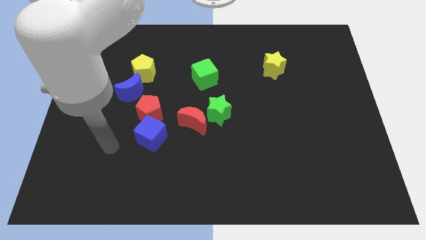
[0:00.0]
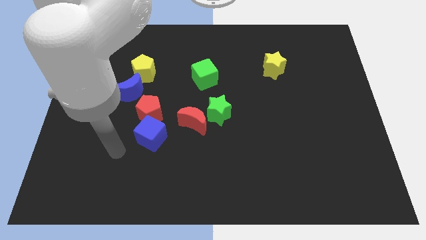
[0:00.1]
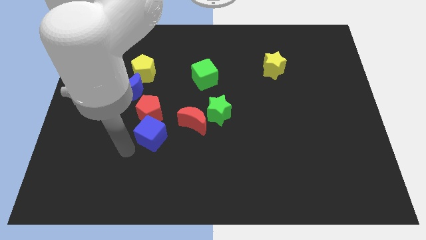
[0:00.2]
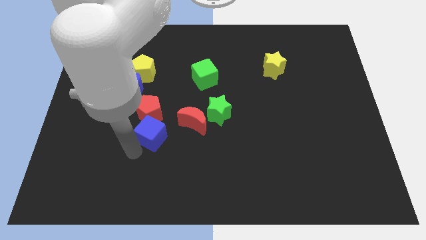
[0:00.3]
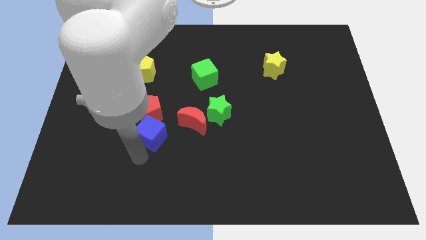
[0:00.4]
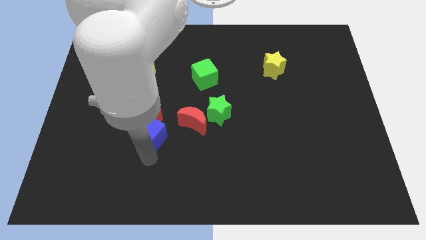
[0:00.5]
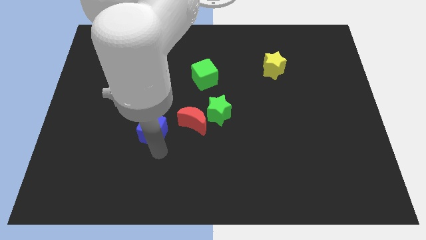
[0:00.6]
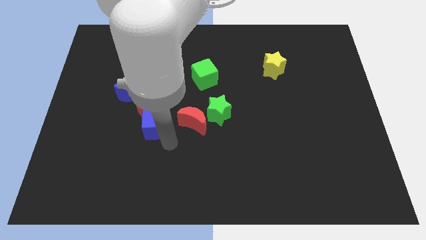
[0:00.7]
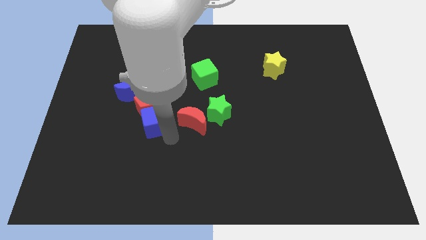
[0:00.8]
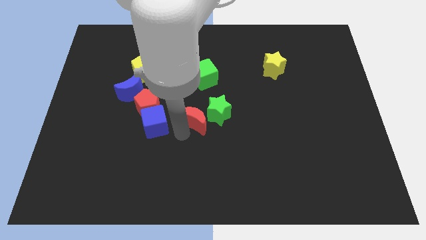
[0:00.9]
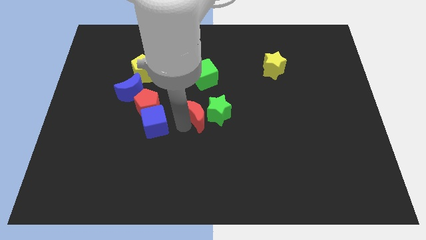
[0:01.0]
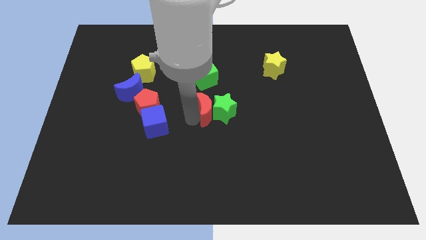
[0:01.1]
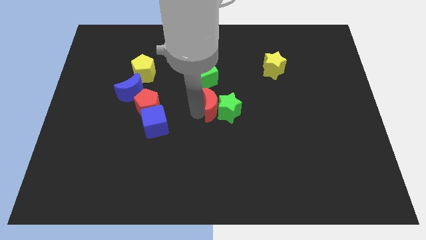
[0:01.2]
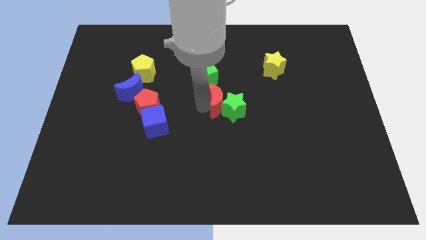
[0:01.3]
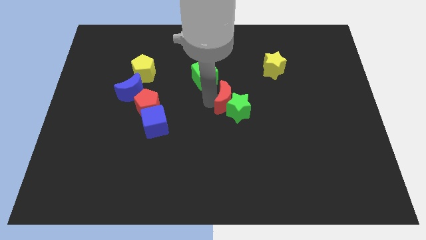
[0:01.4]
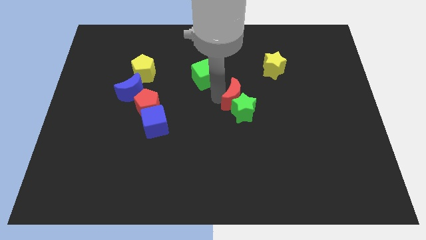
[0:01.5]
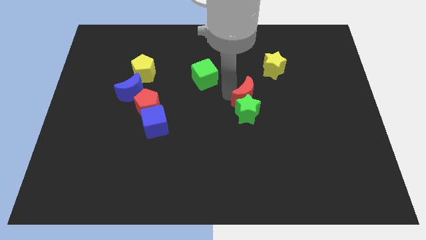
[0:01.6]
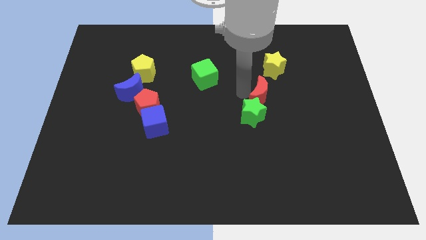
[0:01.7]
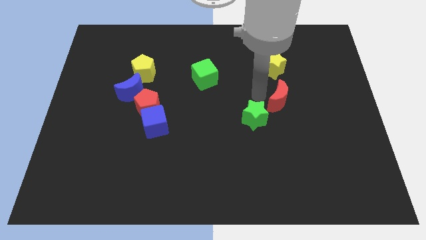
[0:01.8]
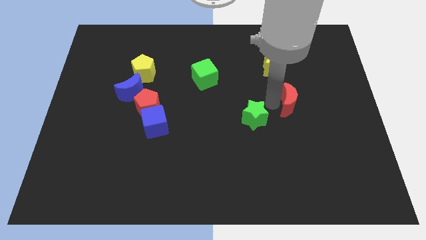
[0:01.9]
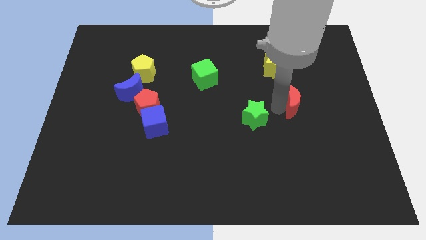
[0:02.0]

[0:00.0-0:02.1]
pull the green star apart from the red moon

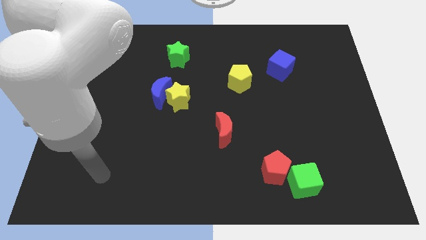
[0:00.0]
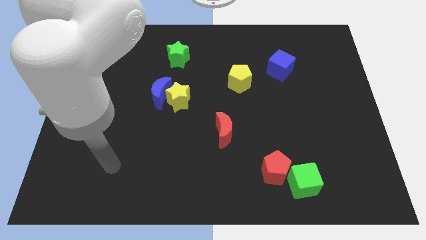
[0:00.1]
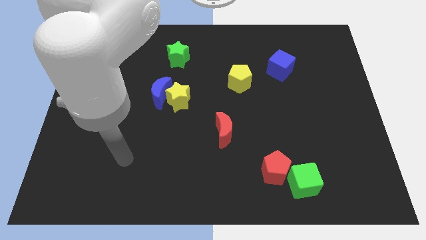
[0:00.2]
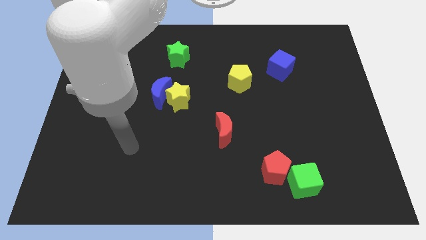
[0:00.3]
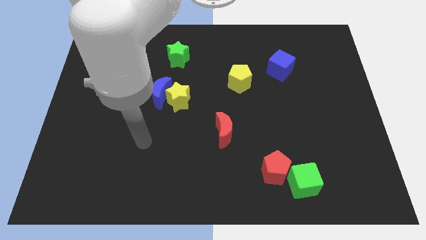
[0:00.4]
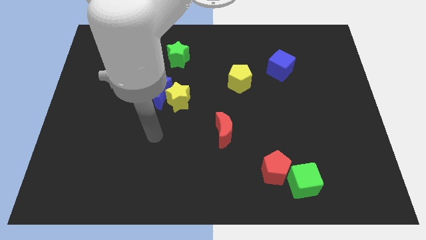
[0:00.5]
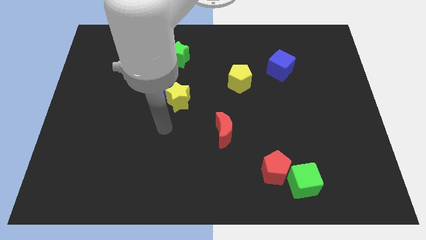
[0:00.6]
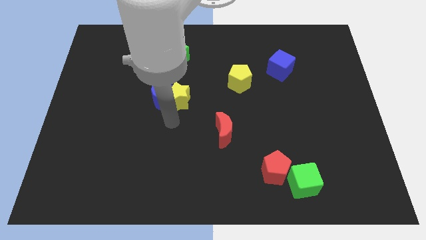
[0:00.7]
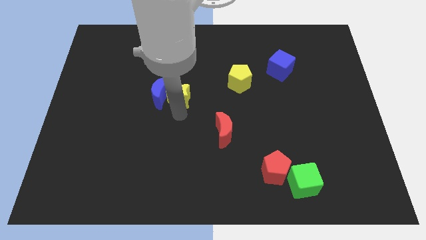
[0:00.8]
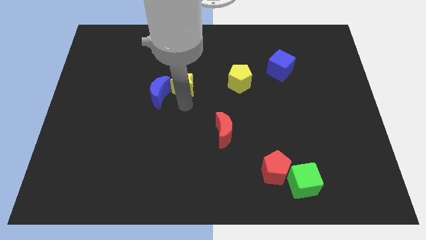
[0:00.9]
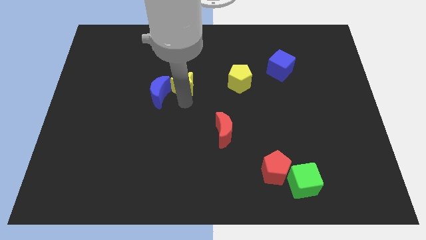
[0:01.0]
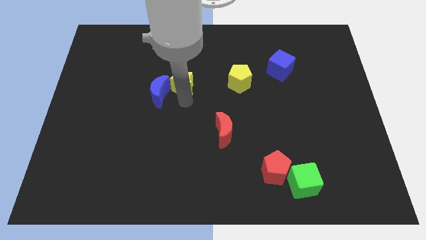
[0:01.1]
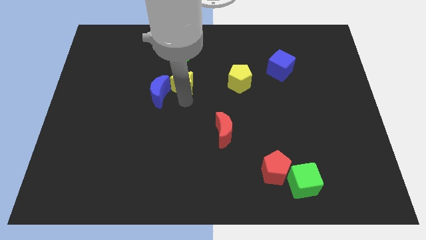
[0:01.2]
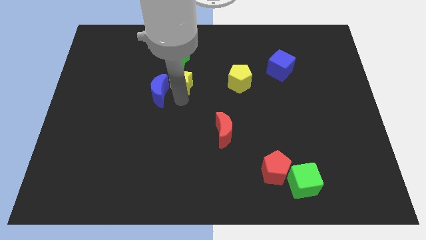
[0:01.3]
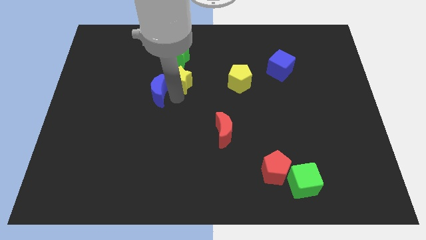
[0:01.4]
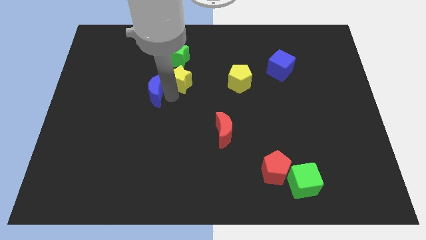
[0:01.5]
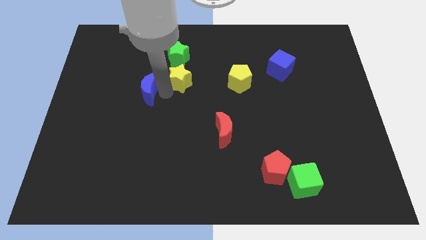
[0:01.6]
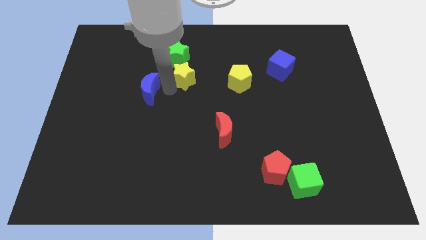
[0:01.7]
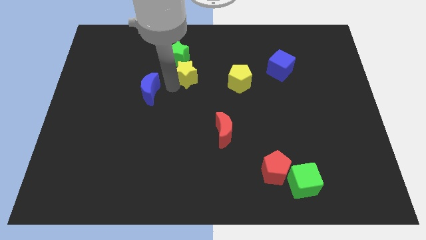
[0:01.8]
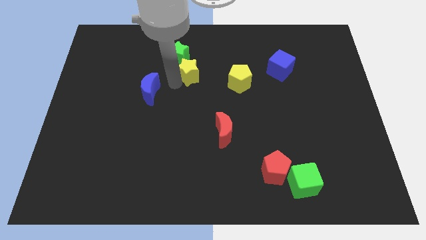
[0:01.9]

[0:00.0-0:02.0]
separate the blue moon from the yellow star

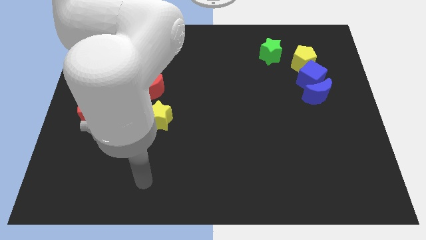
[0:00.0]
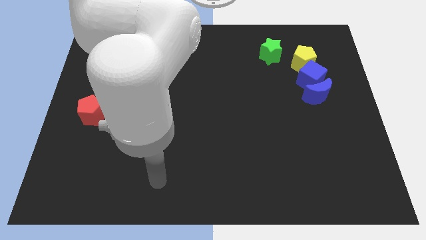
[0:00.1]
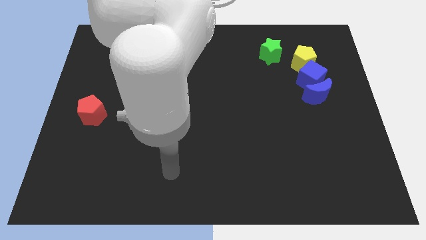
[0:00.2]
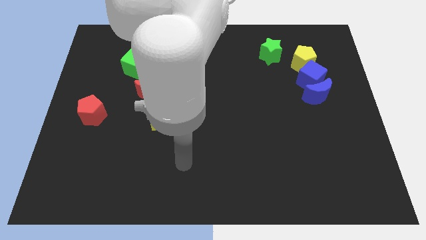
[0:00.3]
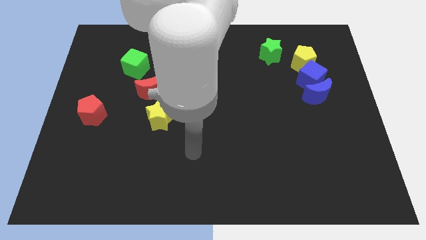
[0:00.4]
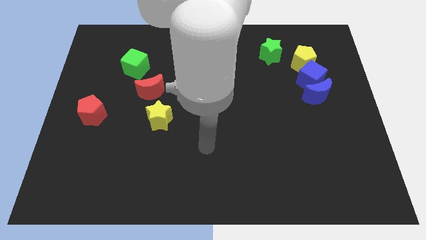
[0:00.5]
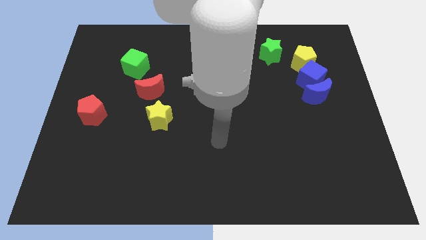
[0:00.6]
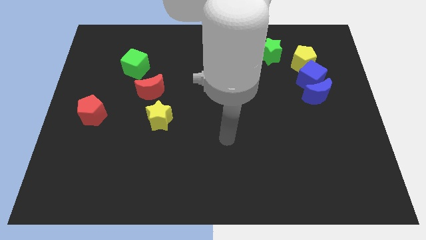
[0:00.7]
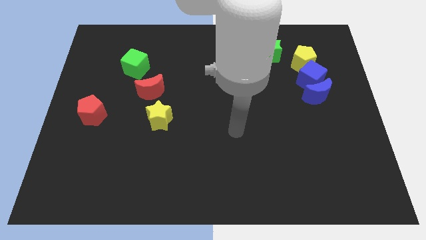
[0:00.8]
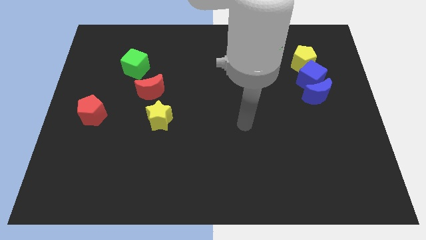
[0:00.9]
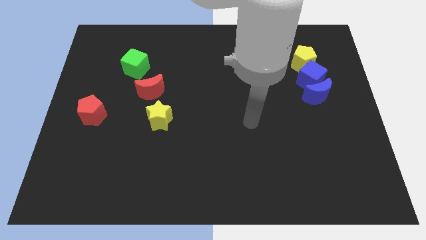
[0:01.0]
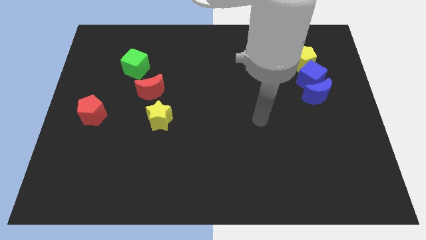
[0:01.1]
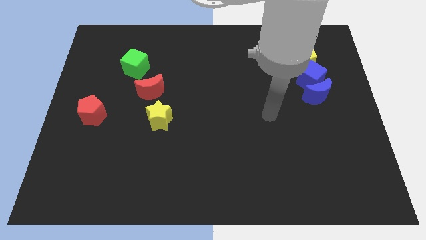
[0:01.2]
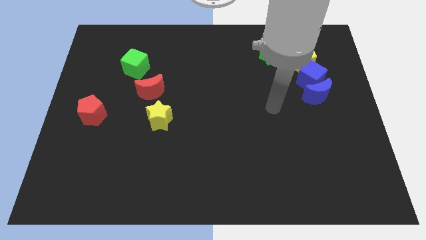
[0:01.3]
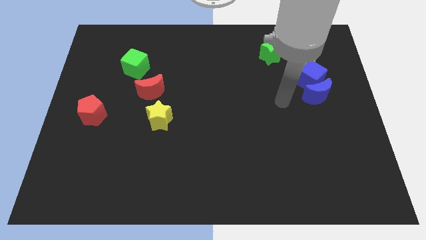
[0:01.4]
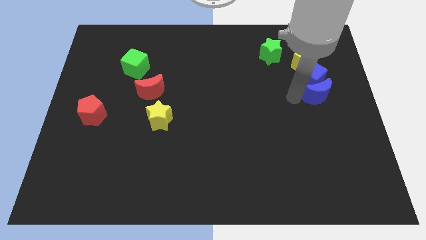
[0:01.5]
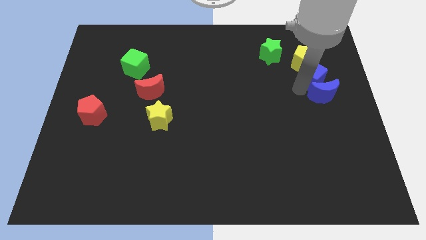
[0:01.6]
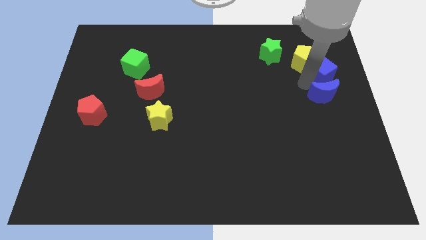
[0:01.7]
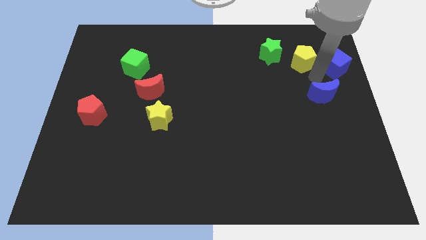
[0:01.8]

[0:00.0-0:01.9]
move the blue moon away from the blue cube

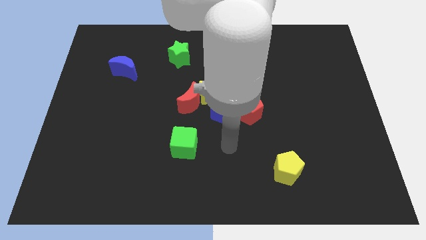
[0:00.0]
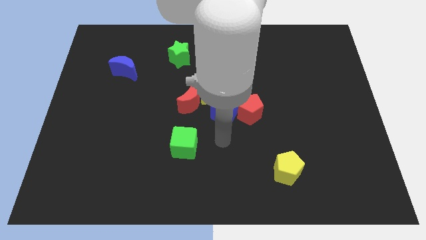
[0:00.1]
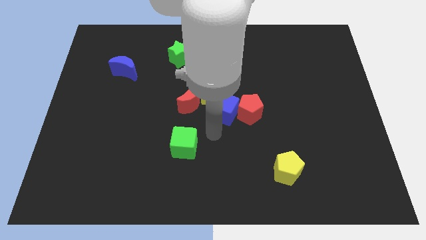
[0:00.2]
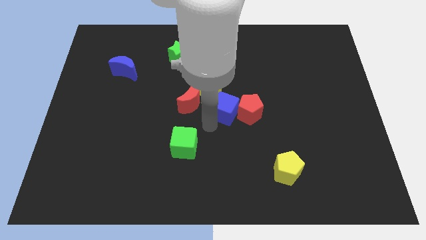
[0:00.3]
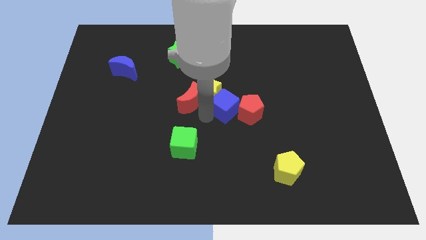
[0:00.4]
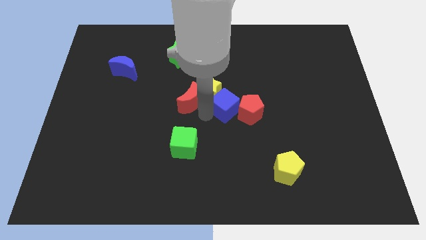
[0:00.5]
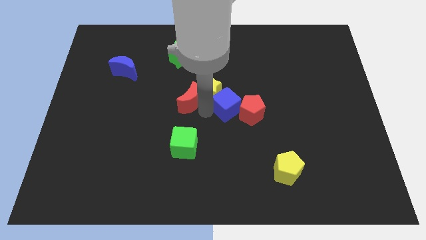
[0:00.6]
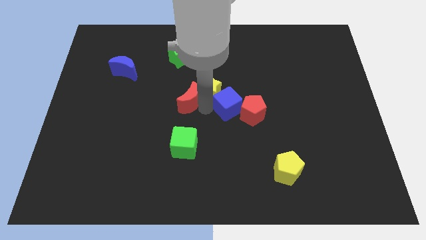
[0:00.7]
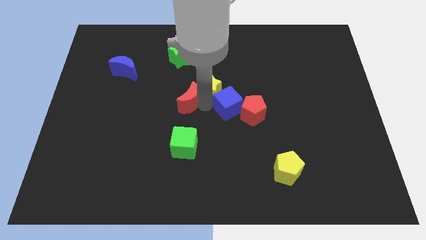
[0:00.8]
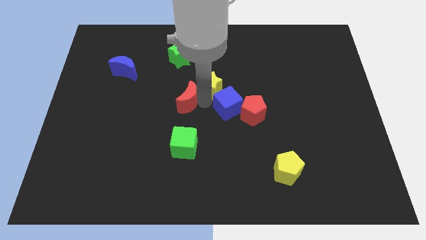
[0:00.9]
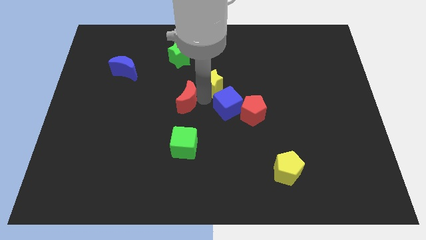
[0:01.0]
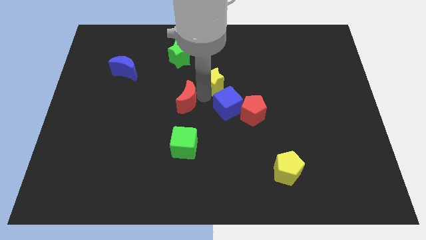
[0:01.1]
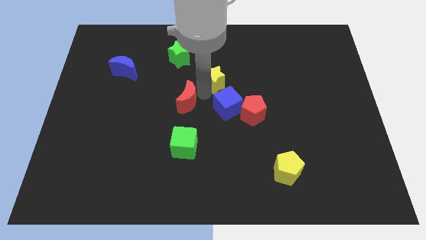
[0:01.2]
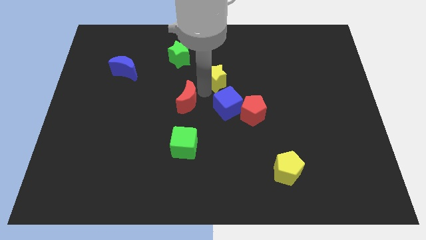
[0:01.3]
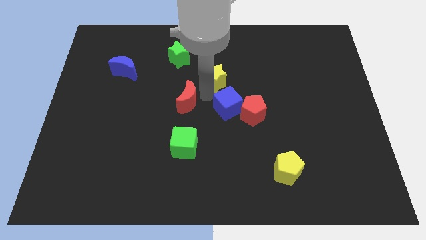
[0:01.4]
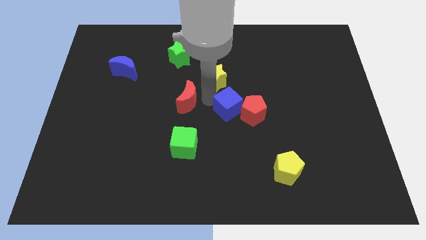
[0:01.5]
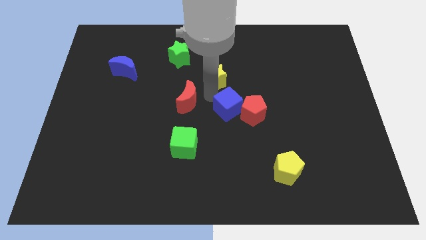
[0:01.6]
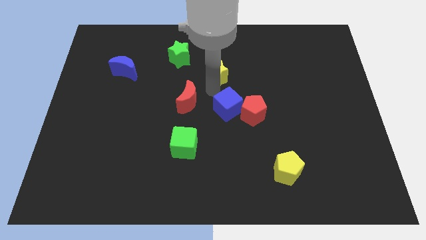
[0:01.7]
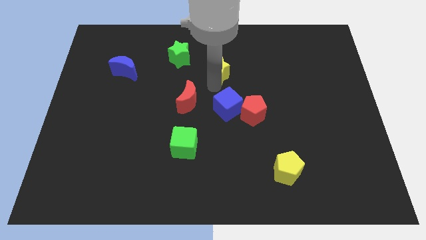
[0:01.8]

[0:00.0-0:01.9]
move the yellow star away from the red moon and blue cube

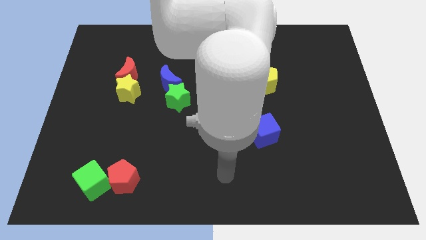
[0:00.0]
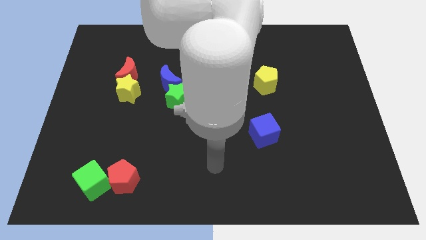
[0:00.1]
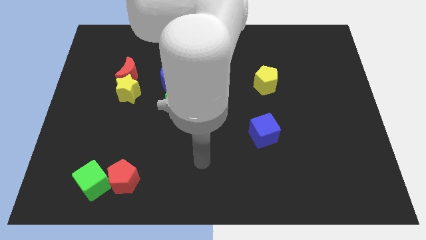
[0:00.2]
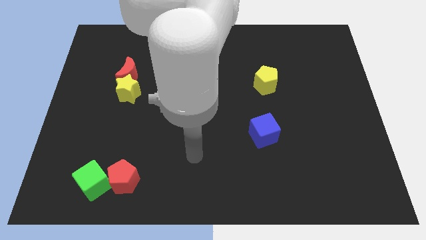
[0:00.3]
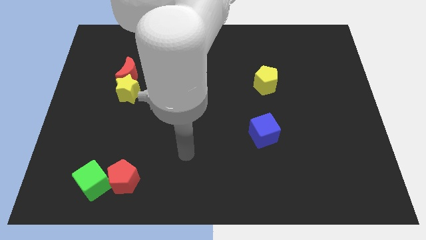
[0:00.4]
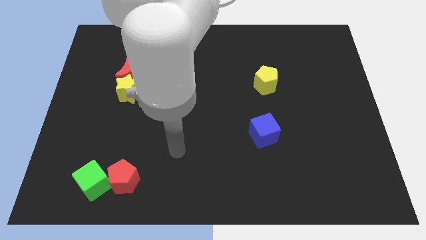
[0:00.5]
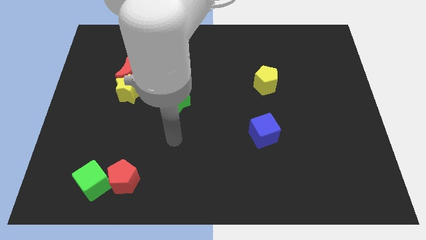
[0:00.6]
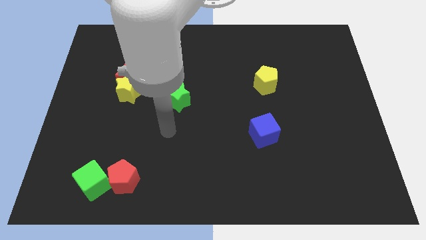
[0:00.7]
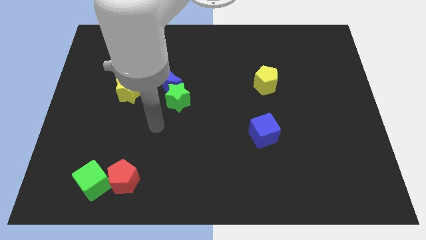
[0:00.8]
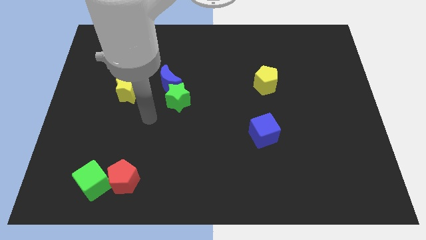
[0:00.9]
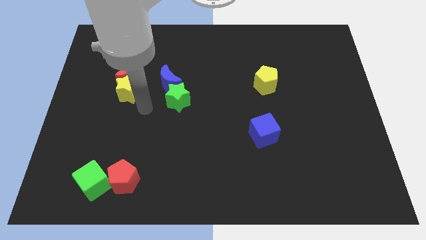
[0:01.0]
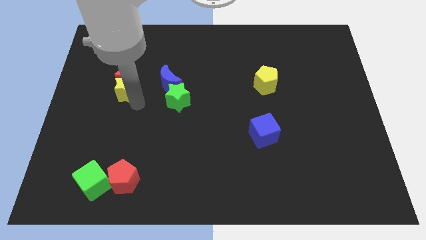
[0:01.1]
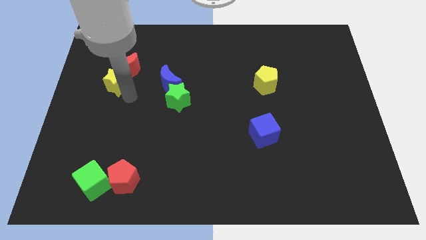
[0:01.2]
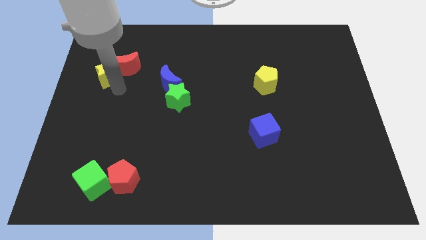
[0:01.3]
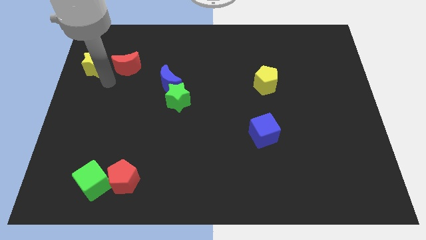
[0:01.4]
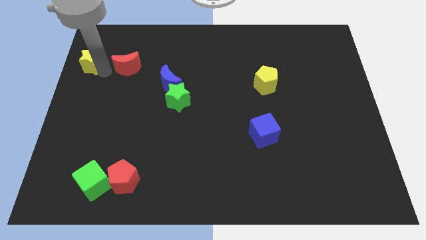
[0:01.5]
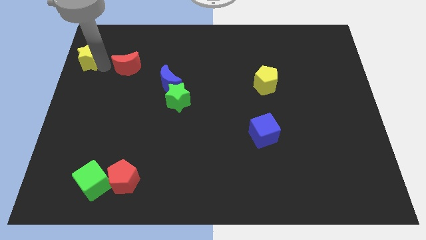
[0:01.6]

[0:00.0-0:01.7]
pull the red moon apart from the yellow star
